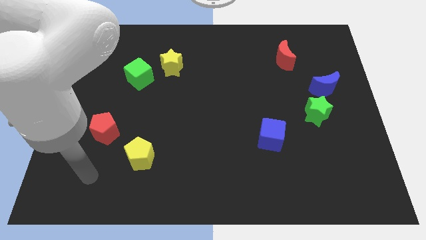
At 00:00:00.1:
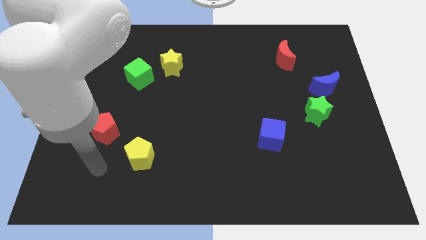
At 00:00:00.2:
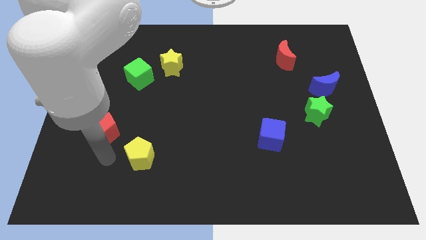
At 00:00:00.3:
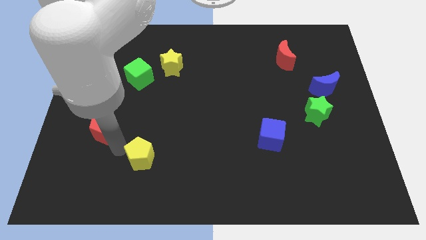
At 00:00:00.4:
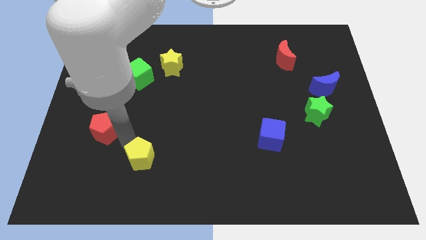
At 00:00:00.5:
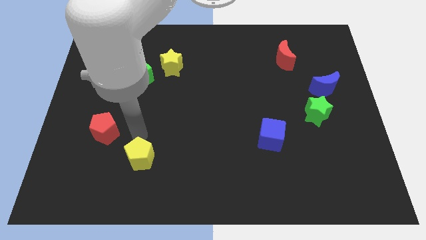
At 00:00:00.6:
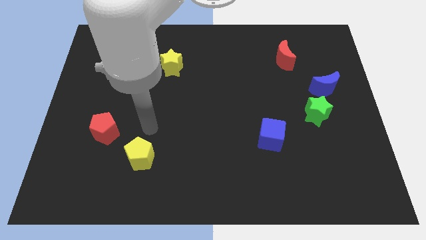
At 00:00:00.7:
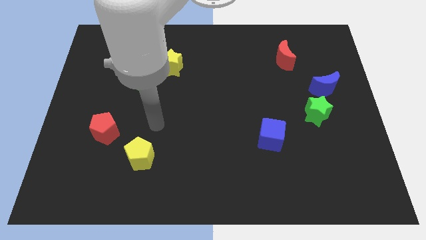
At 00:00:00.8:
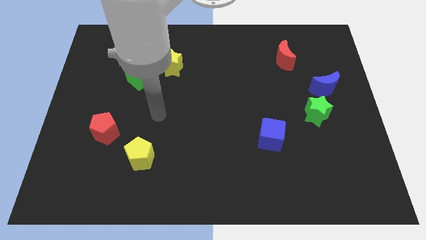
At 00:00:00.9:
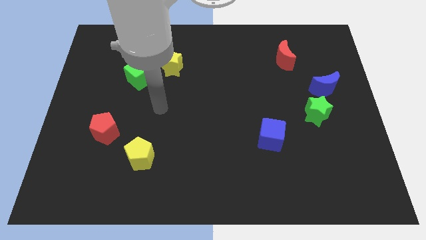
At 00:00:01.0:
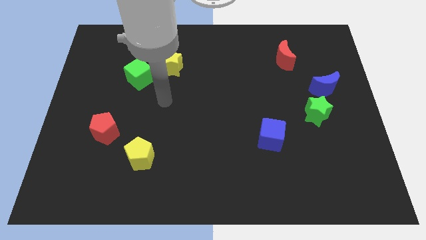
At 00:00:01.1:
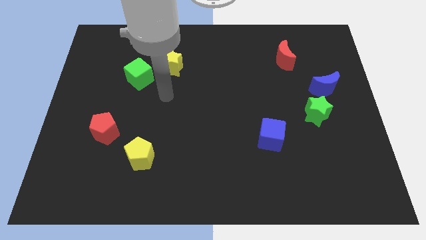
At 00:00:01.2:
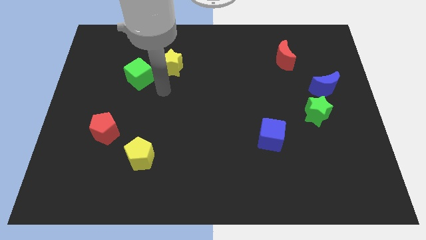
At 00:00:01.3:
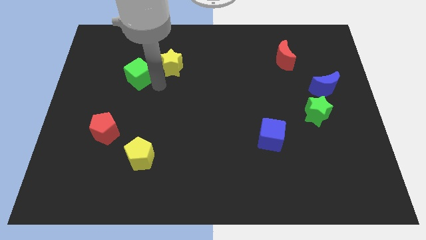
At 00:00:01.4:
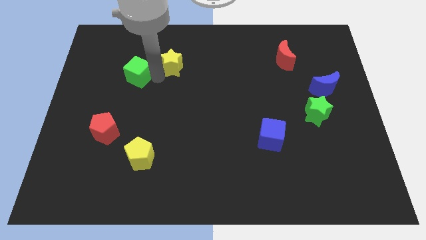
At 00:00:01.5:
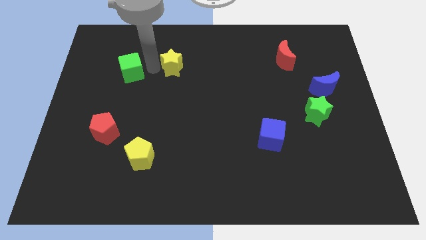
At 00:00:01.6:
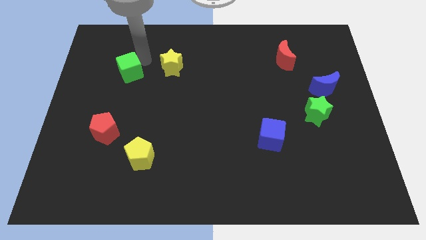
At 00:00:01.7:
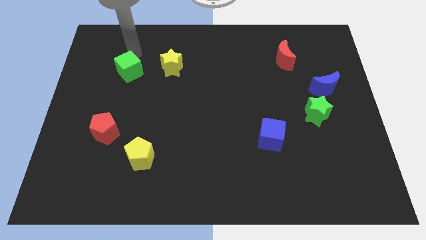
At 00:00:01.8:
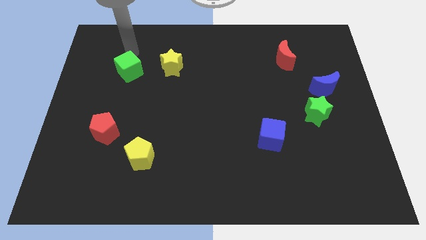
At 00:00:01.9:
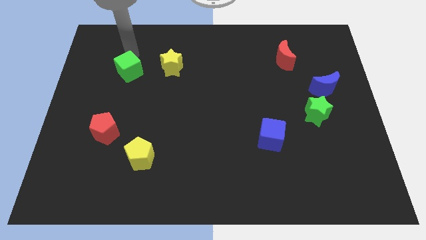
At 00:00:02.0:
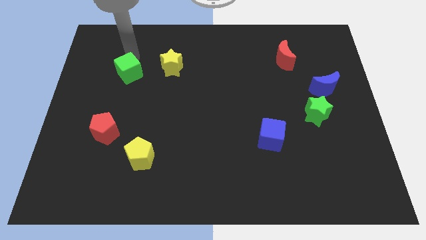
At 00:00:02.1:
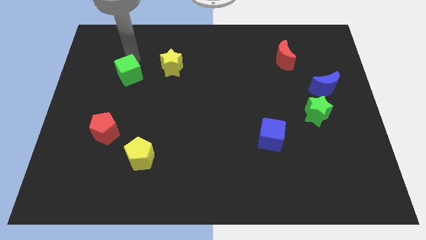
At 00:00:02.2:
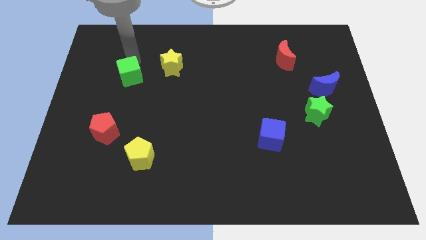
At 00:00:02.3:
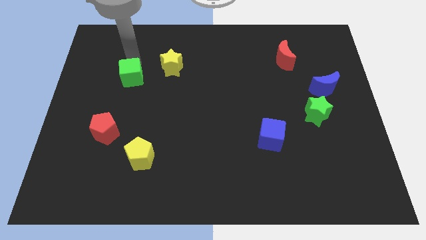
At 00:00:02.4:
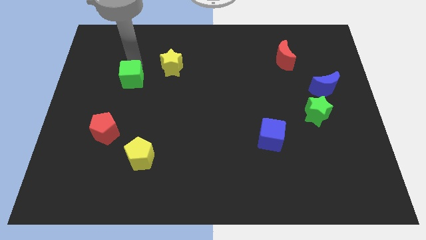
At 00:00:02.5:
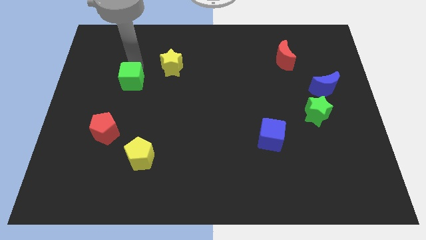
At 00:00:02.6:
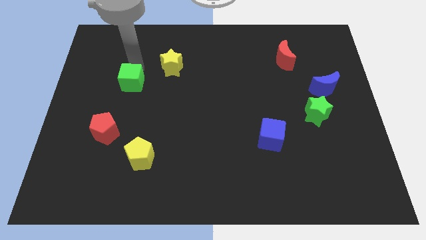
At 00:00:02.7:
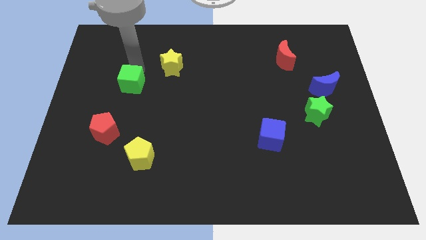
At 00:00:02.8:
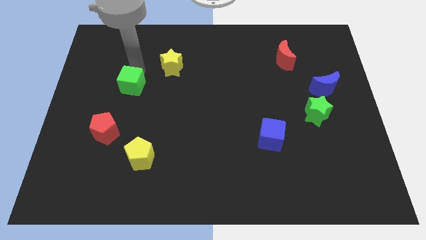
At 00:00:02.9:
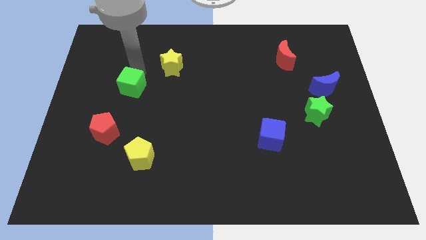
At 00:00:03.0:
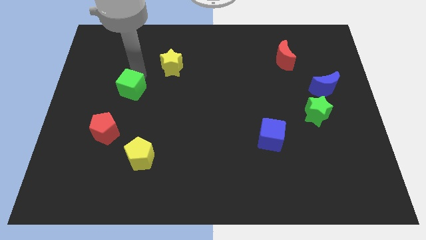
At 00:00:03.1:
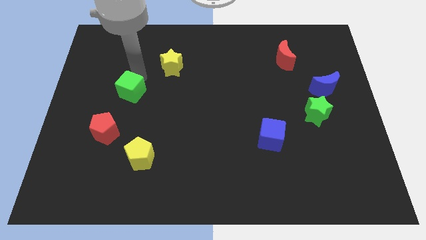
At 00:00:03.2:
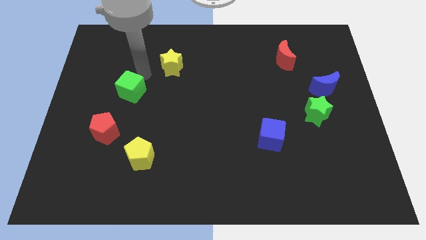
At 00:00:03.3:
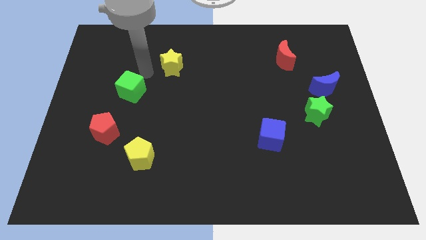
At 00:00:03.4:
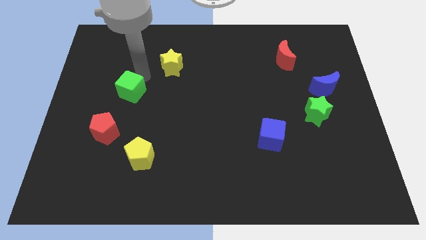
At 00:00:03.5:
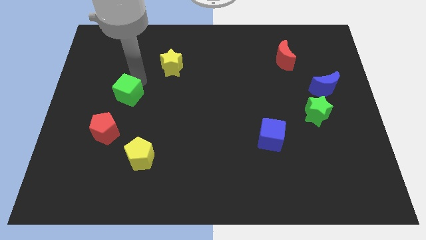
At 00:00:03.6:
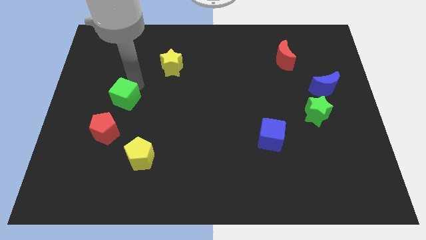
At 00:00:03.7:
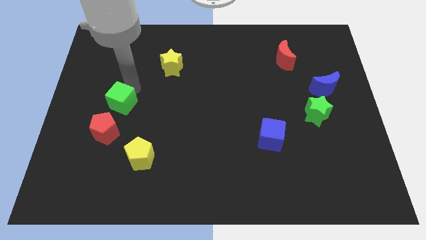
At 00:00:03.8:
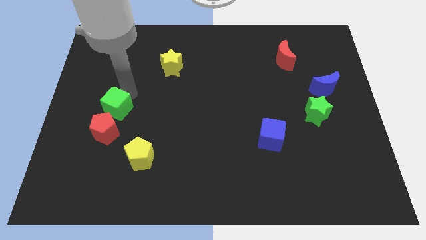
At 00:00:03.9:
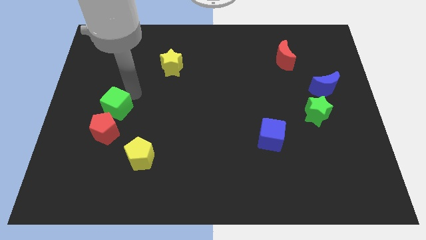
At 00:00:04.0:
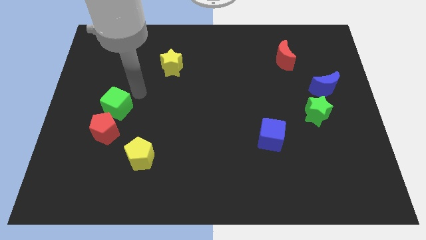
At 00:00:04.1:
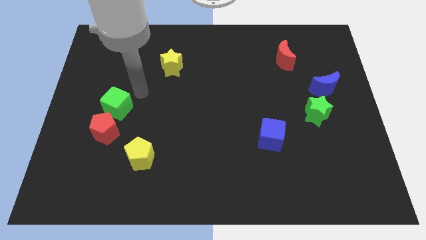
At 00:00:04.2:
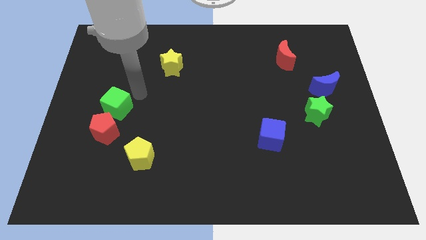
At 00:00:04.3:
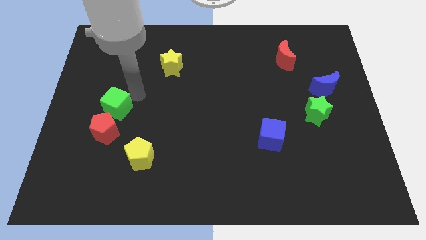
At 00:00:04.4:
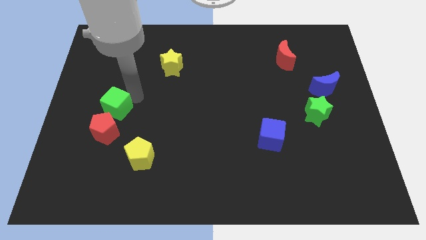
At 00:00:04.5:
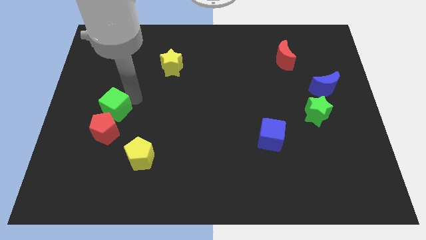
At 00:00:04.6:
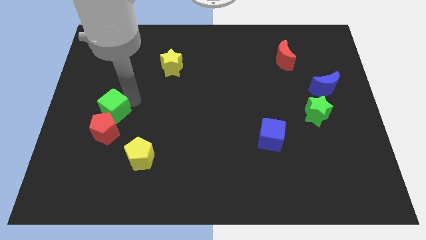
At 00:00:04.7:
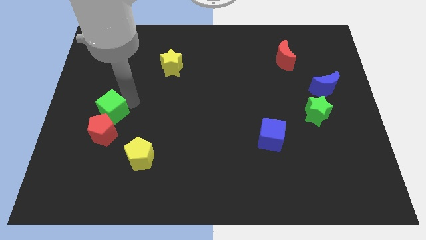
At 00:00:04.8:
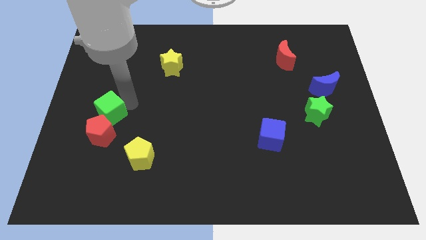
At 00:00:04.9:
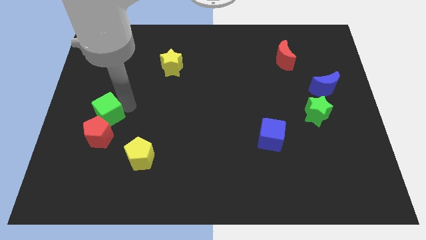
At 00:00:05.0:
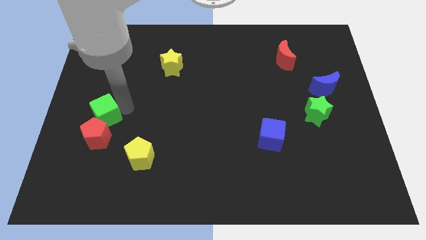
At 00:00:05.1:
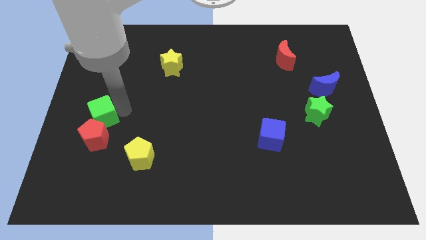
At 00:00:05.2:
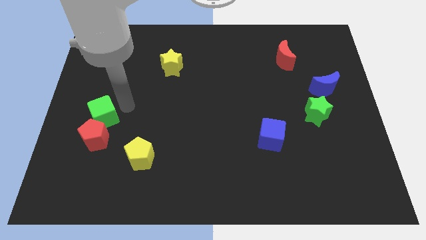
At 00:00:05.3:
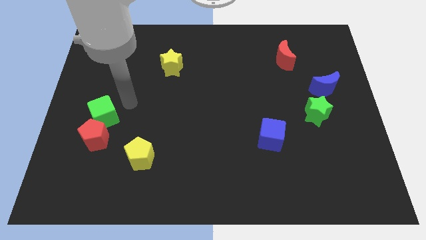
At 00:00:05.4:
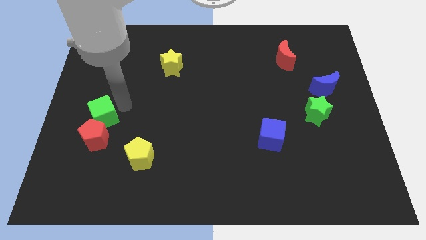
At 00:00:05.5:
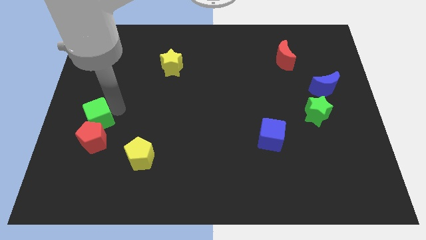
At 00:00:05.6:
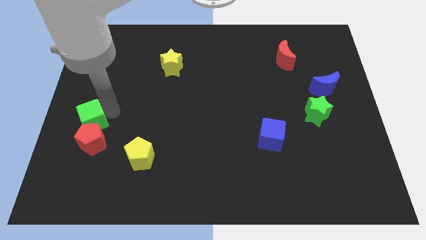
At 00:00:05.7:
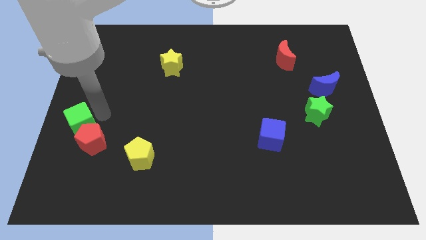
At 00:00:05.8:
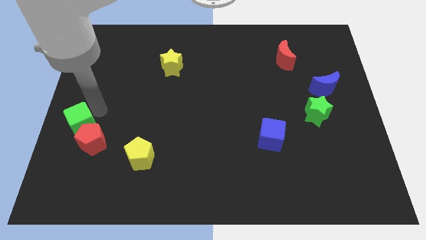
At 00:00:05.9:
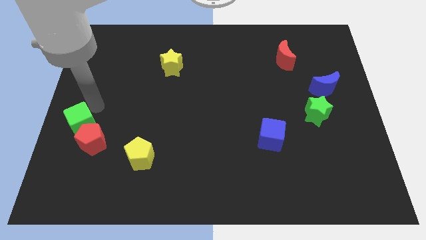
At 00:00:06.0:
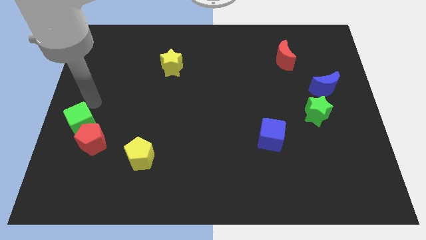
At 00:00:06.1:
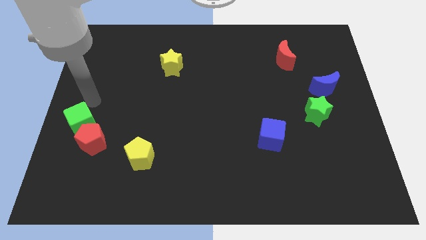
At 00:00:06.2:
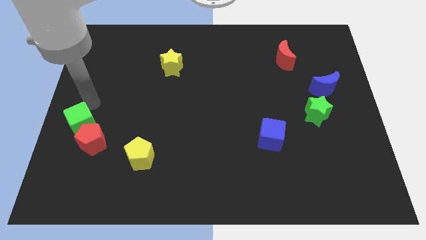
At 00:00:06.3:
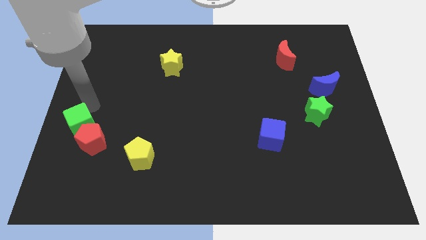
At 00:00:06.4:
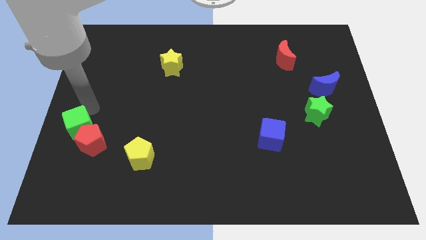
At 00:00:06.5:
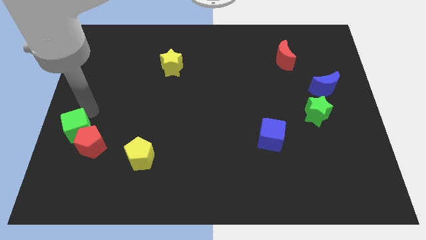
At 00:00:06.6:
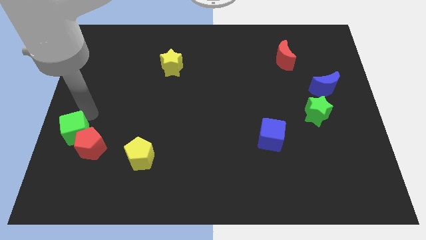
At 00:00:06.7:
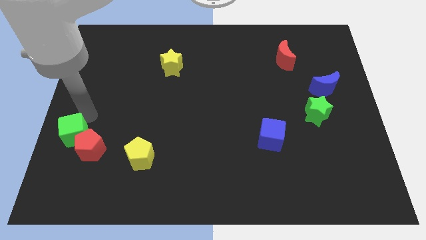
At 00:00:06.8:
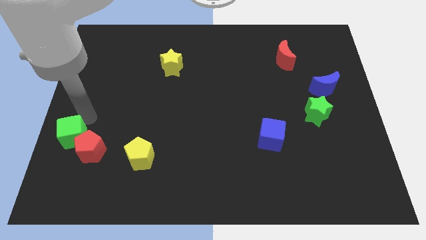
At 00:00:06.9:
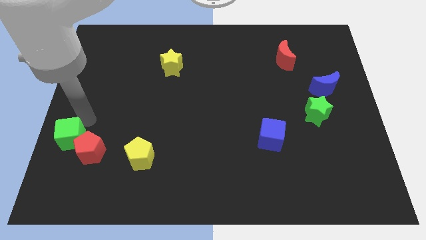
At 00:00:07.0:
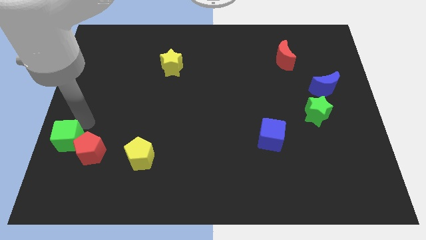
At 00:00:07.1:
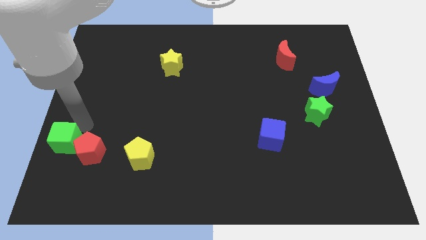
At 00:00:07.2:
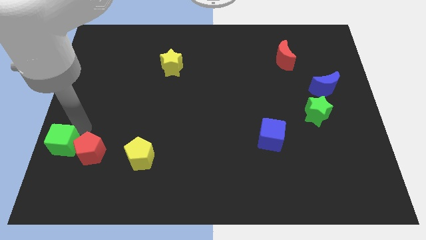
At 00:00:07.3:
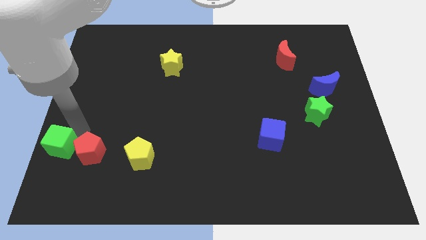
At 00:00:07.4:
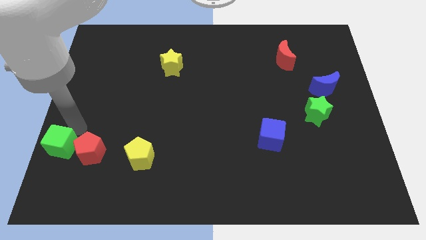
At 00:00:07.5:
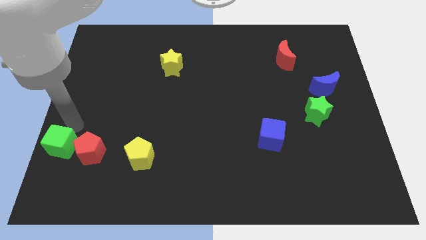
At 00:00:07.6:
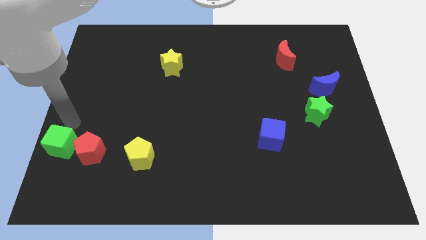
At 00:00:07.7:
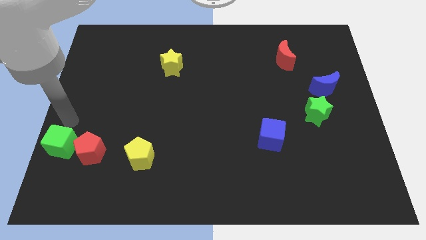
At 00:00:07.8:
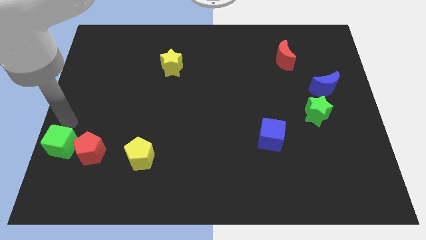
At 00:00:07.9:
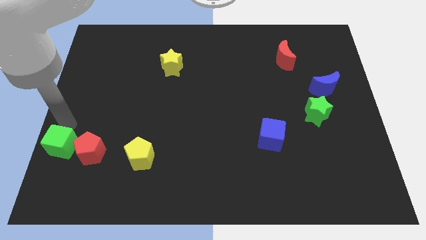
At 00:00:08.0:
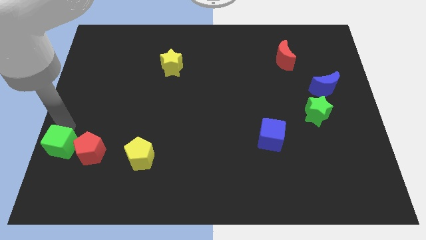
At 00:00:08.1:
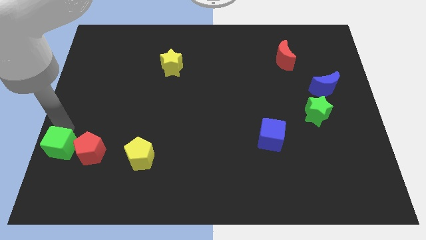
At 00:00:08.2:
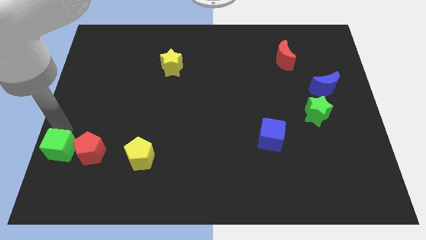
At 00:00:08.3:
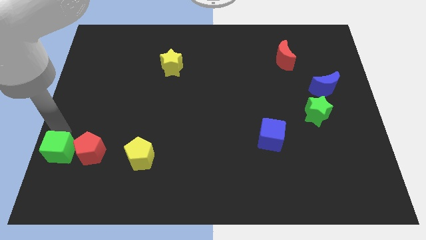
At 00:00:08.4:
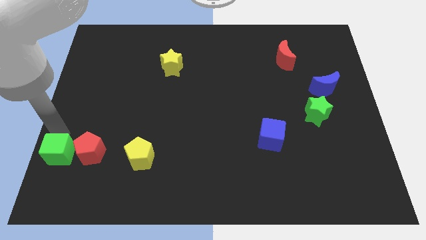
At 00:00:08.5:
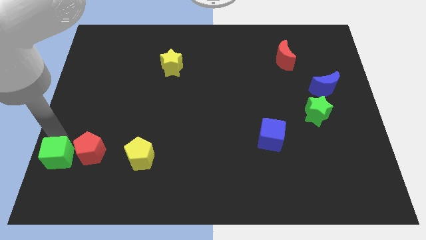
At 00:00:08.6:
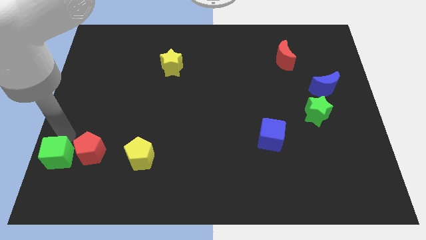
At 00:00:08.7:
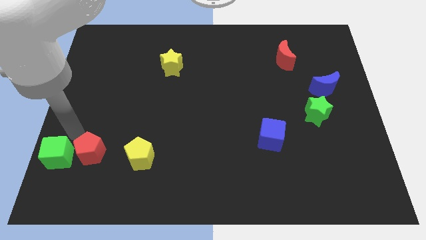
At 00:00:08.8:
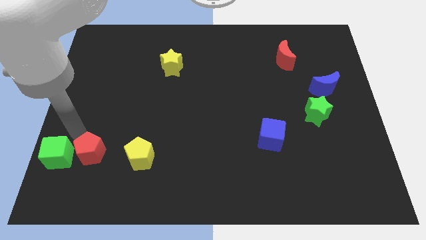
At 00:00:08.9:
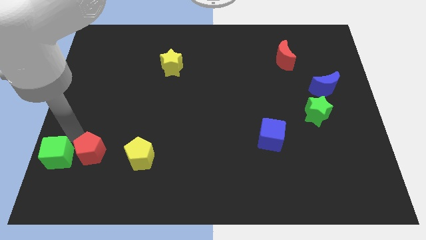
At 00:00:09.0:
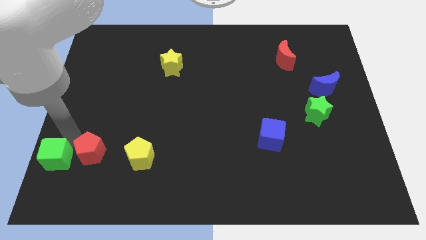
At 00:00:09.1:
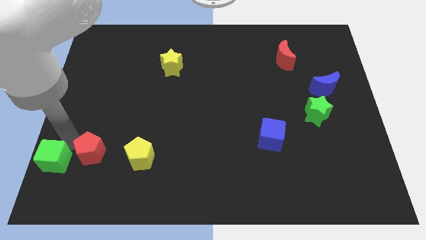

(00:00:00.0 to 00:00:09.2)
slide the green cube to the bottom left of the board
